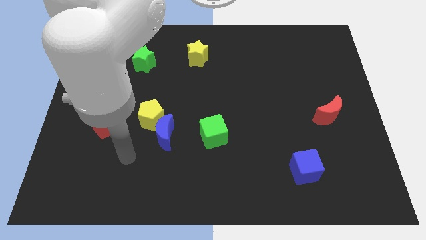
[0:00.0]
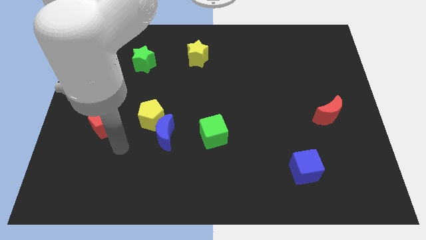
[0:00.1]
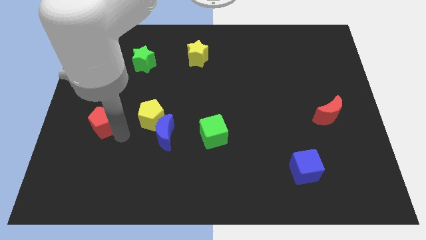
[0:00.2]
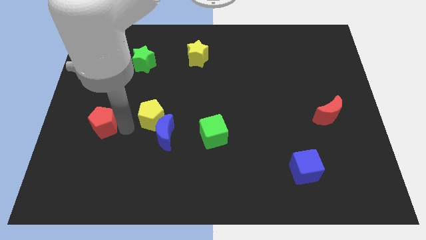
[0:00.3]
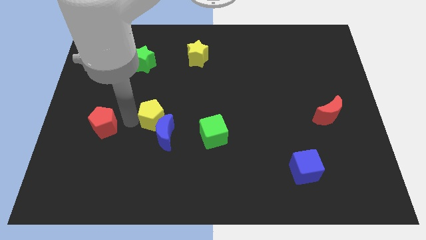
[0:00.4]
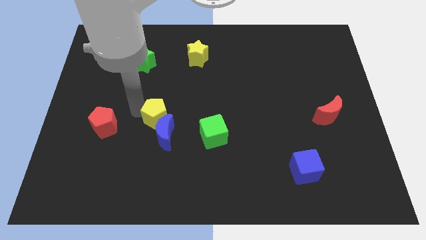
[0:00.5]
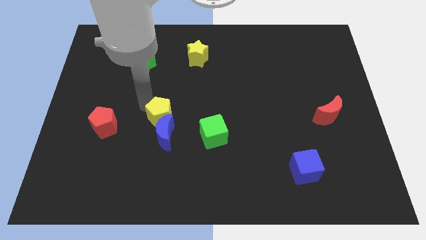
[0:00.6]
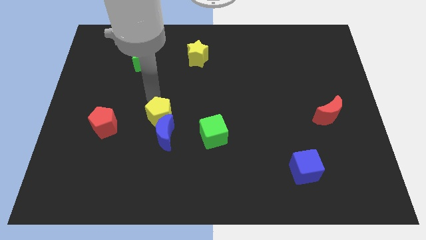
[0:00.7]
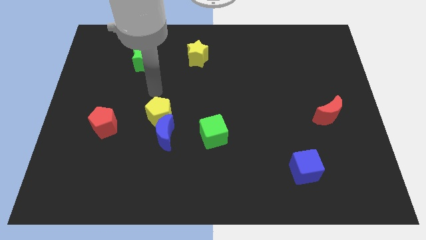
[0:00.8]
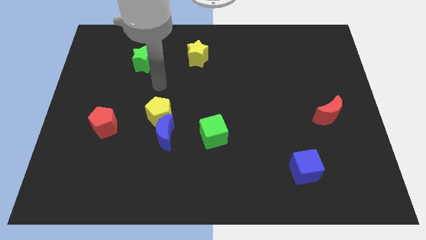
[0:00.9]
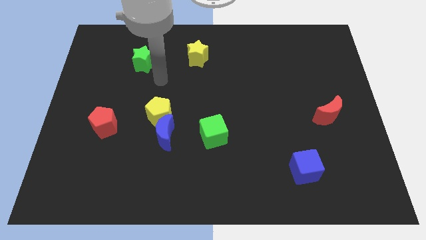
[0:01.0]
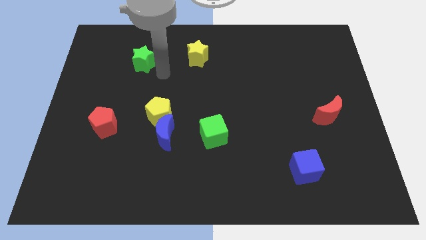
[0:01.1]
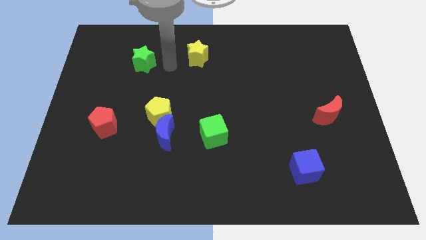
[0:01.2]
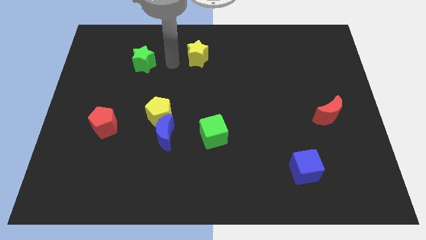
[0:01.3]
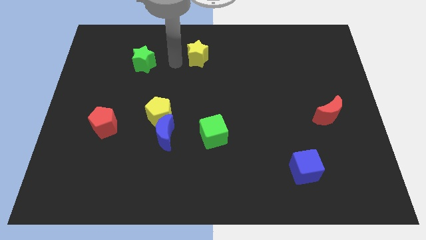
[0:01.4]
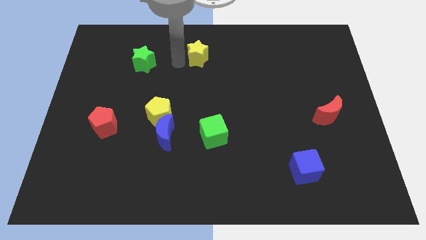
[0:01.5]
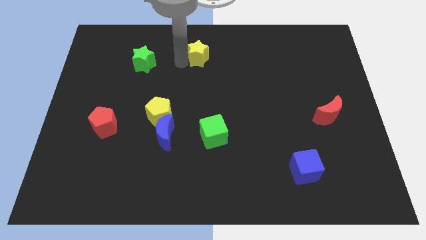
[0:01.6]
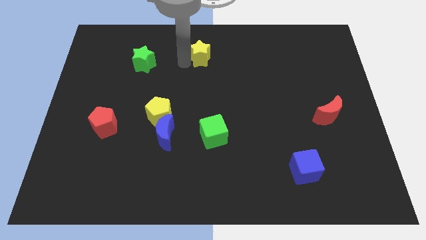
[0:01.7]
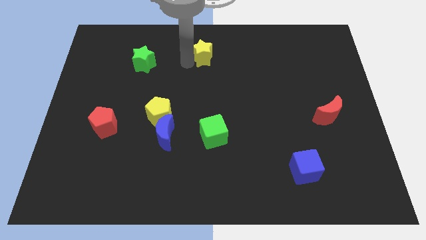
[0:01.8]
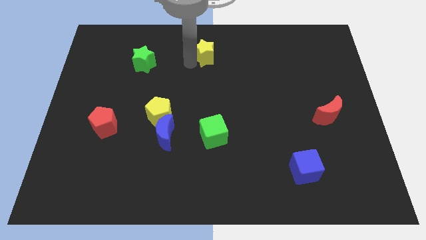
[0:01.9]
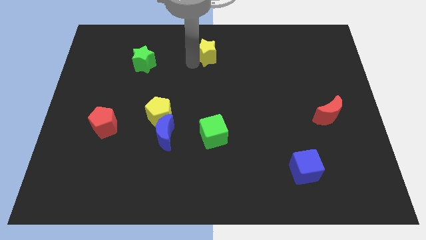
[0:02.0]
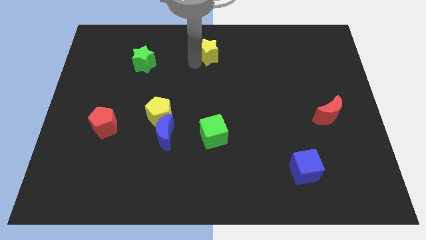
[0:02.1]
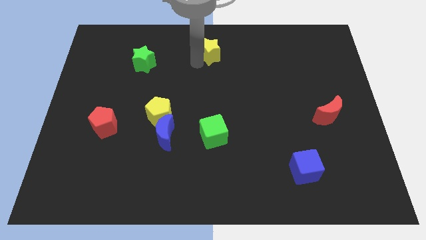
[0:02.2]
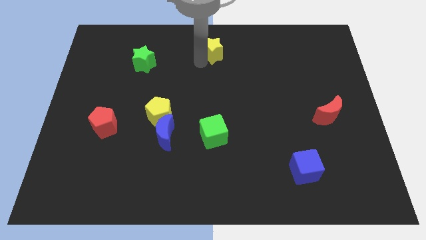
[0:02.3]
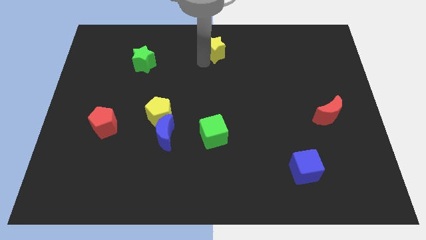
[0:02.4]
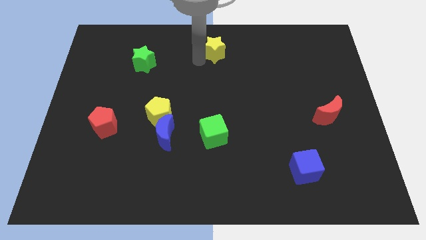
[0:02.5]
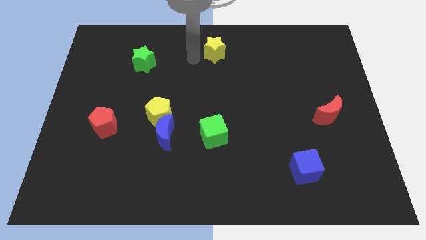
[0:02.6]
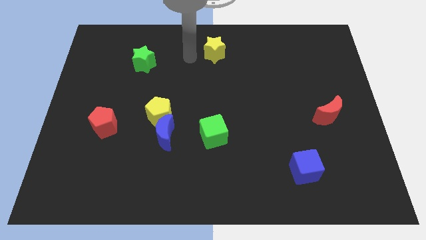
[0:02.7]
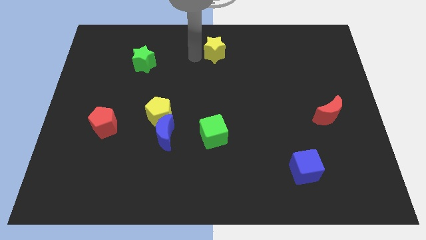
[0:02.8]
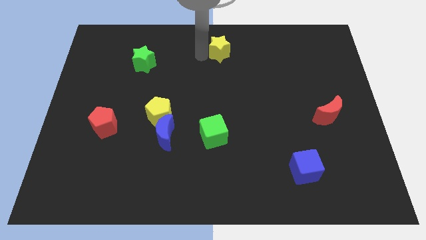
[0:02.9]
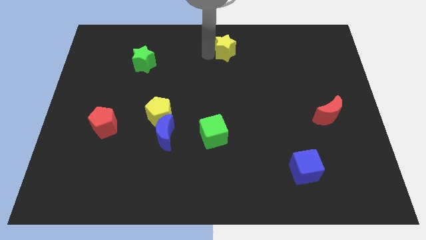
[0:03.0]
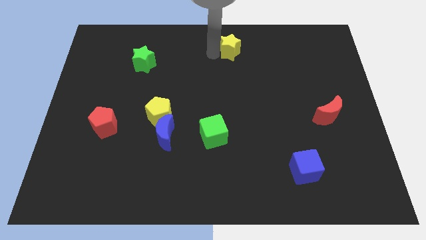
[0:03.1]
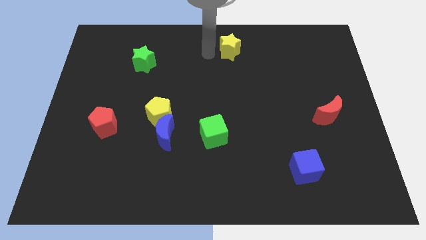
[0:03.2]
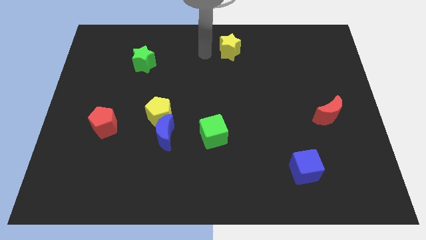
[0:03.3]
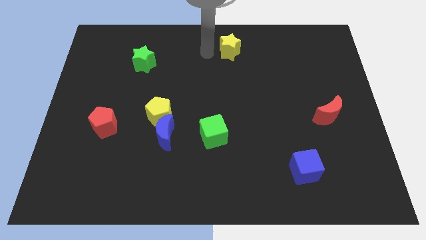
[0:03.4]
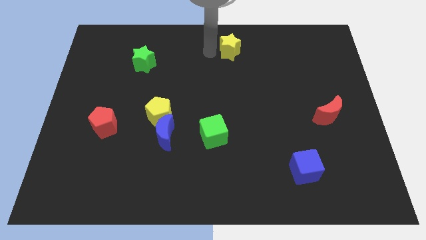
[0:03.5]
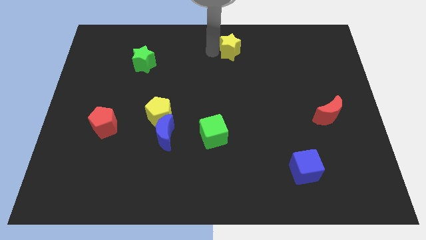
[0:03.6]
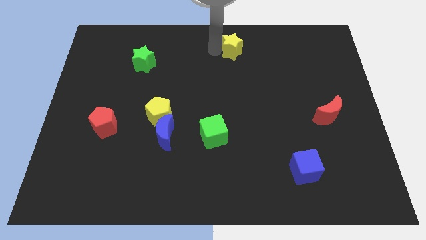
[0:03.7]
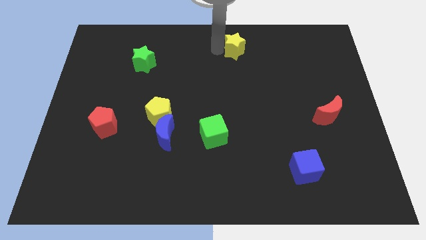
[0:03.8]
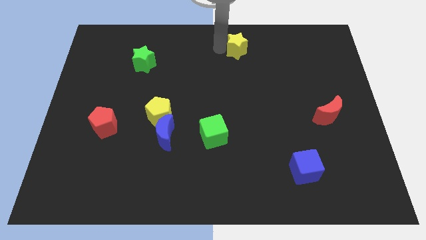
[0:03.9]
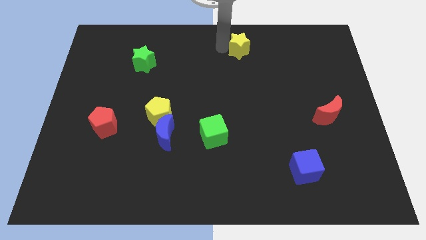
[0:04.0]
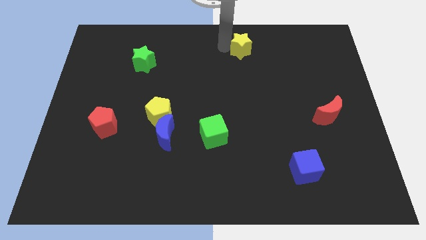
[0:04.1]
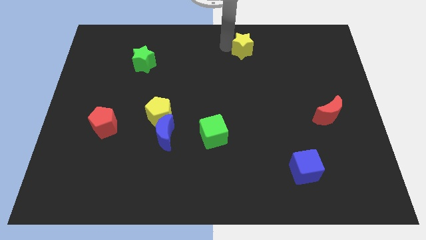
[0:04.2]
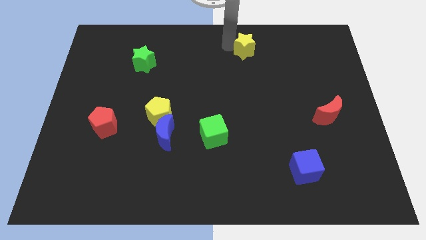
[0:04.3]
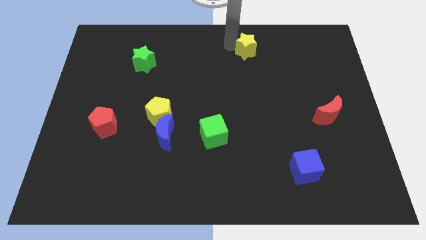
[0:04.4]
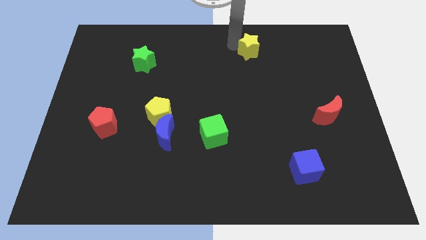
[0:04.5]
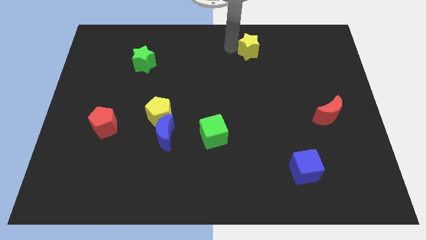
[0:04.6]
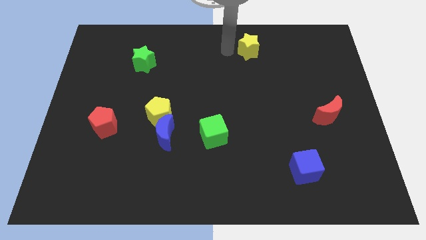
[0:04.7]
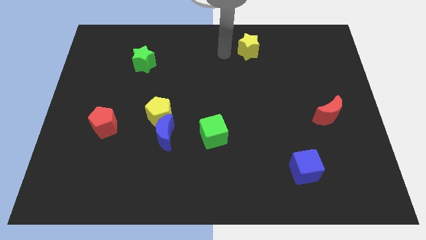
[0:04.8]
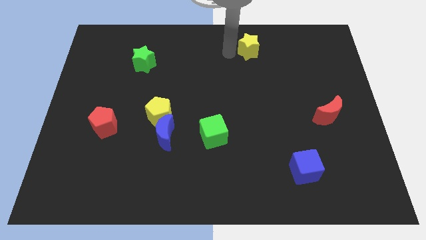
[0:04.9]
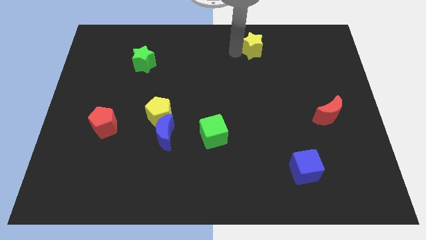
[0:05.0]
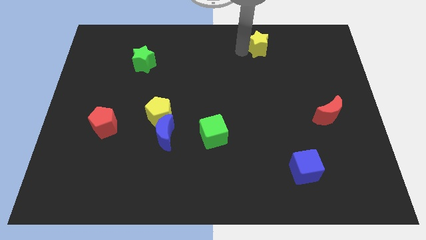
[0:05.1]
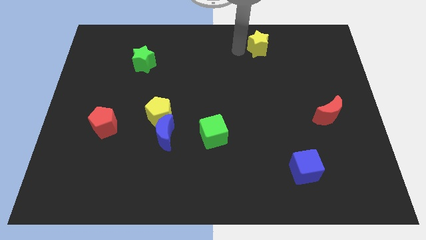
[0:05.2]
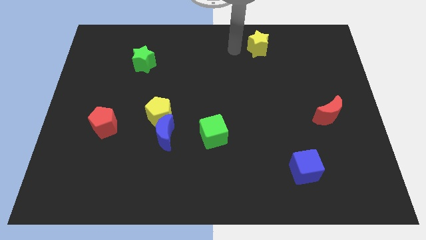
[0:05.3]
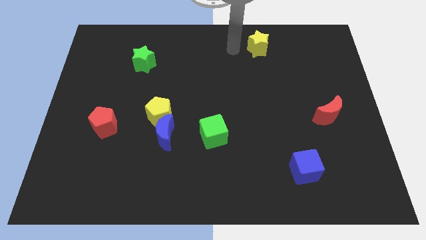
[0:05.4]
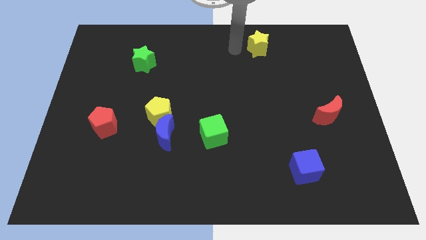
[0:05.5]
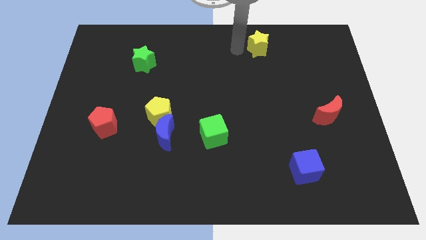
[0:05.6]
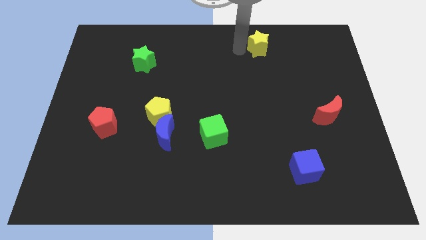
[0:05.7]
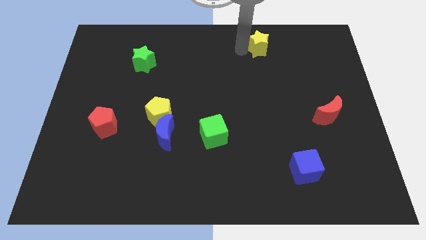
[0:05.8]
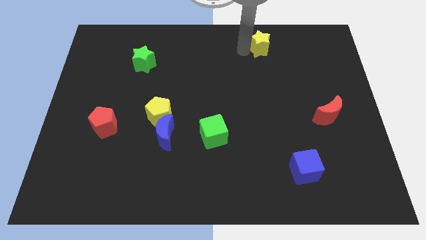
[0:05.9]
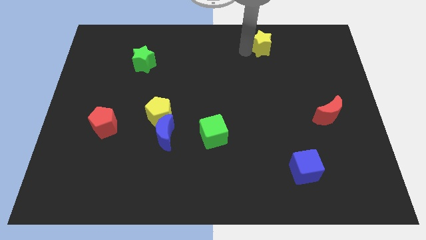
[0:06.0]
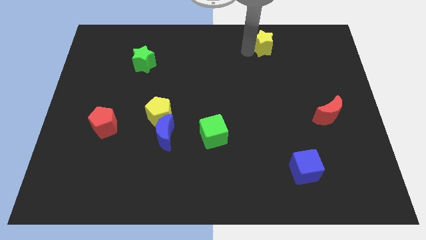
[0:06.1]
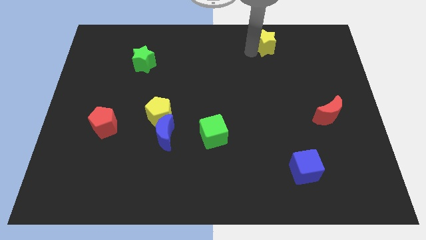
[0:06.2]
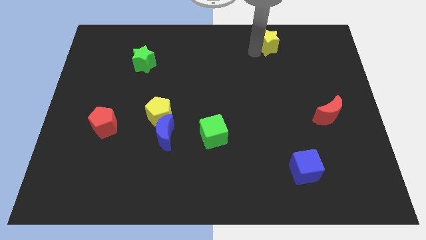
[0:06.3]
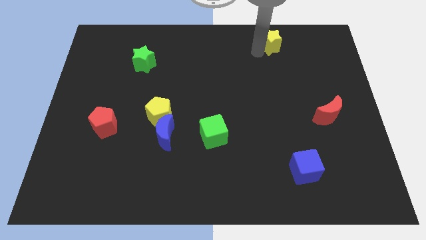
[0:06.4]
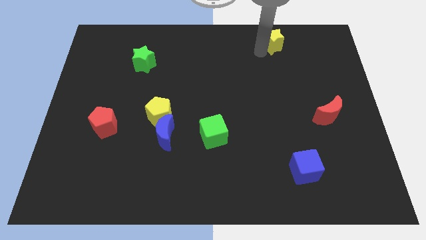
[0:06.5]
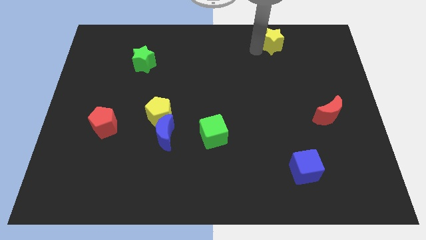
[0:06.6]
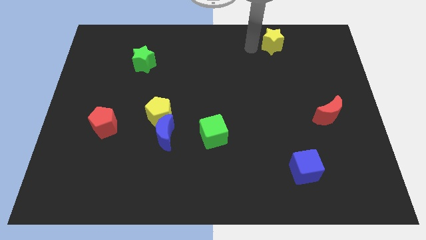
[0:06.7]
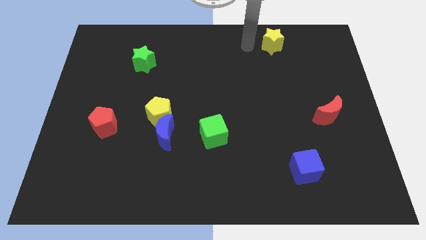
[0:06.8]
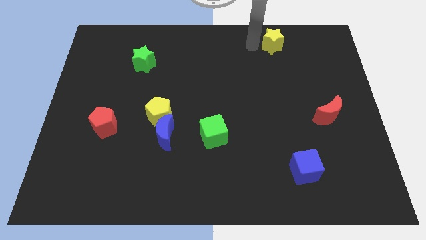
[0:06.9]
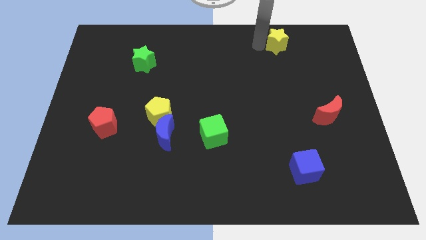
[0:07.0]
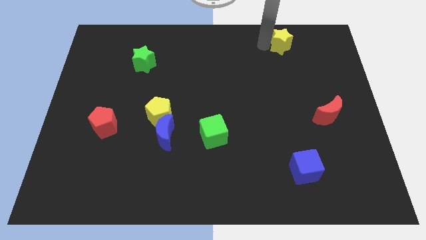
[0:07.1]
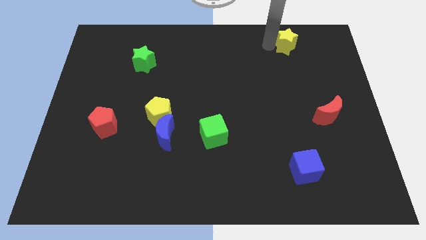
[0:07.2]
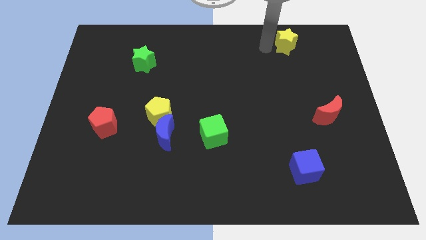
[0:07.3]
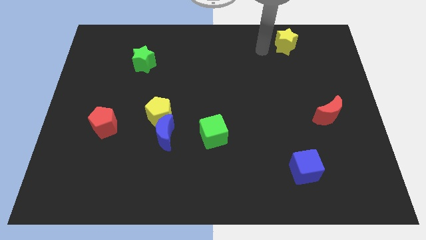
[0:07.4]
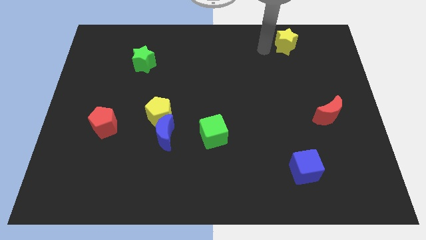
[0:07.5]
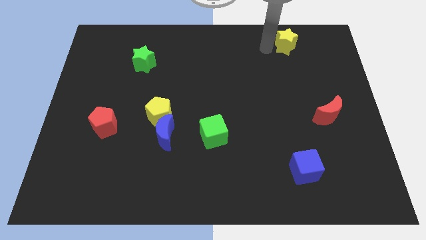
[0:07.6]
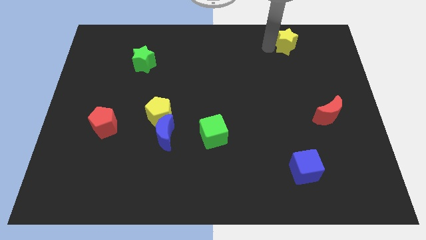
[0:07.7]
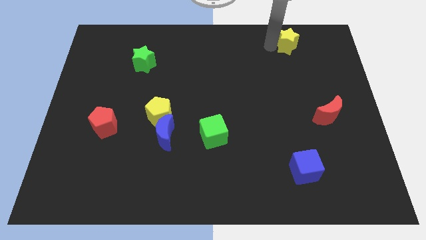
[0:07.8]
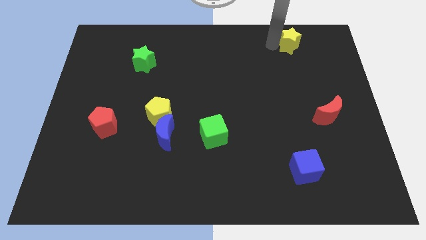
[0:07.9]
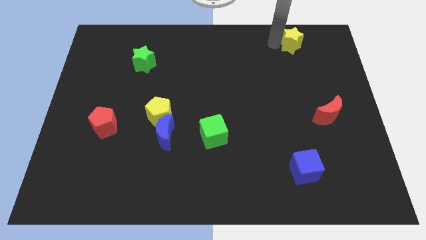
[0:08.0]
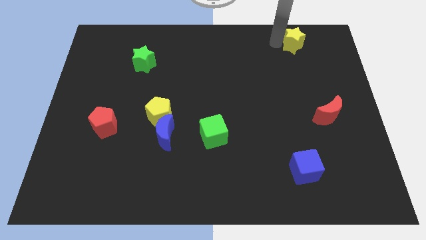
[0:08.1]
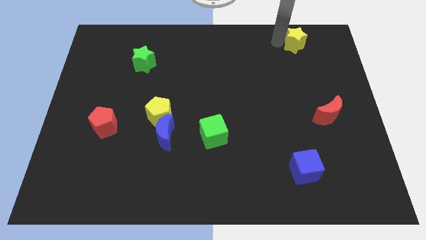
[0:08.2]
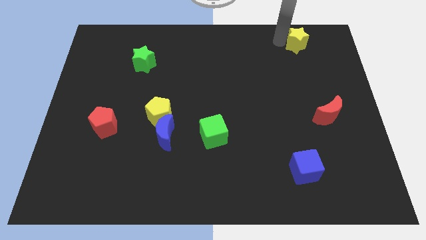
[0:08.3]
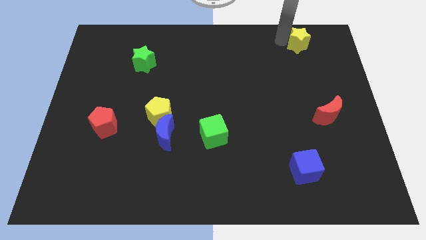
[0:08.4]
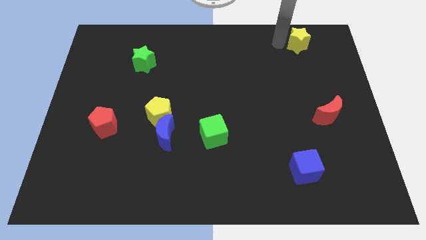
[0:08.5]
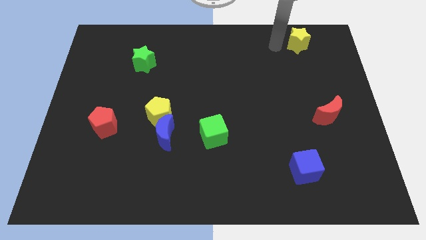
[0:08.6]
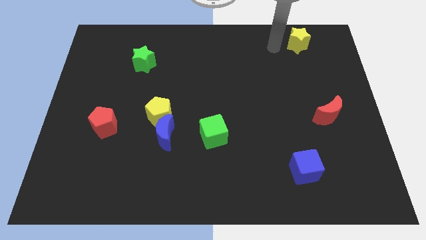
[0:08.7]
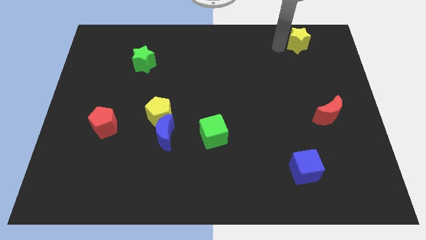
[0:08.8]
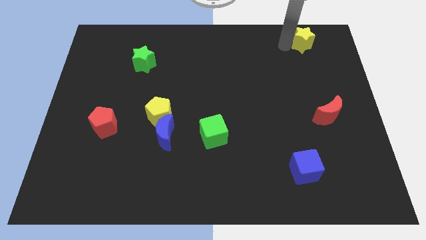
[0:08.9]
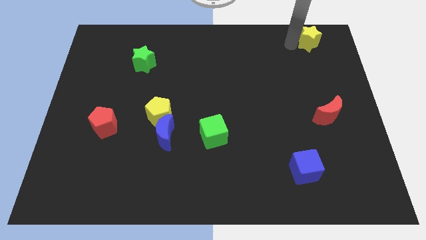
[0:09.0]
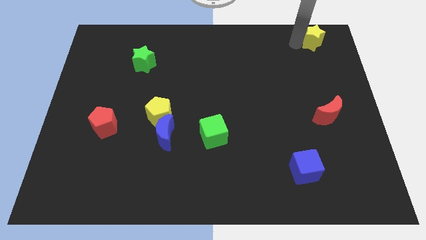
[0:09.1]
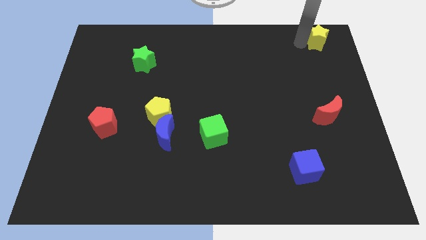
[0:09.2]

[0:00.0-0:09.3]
push the yellow star to the top right
